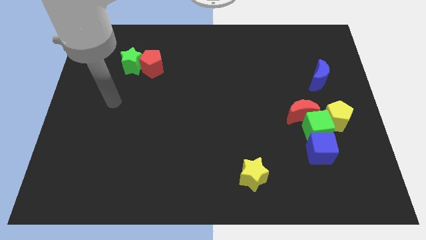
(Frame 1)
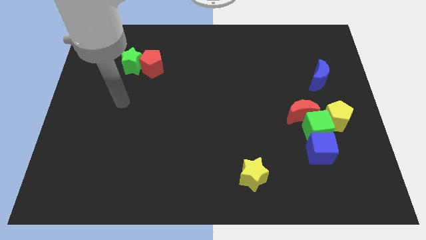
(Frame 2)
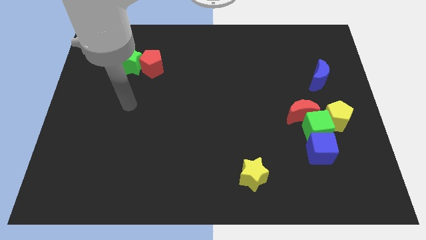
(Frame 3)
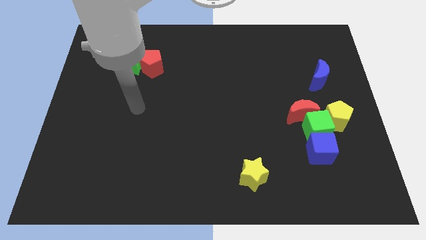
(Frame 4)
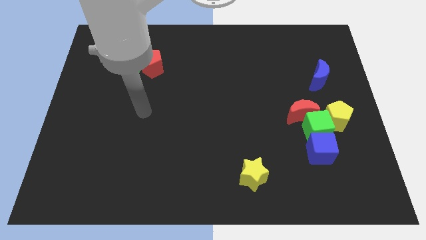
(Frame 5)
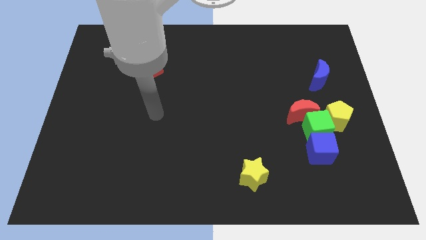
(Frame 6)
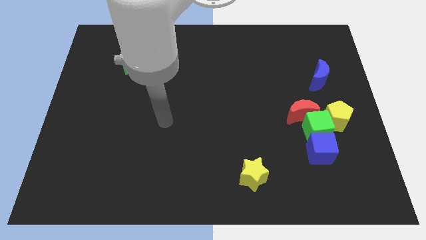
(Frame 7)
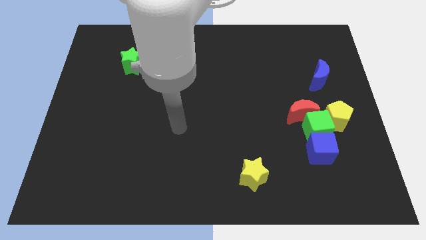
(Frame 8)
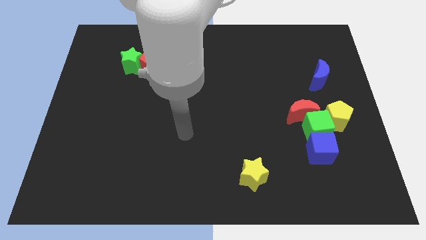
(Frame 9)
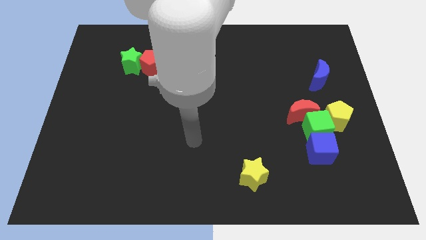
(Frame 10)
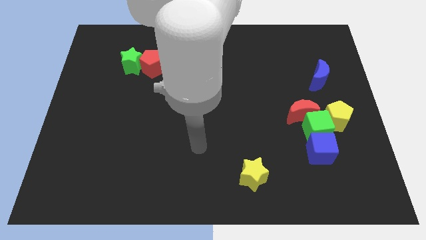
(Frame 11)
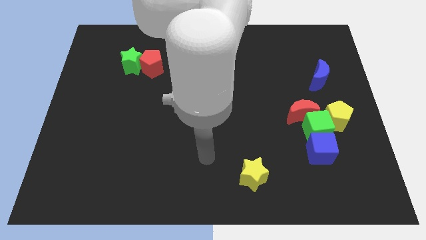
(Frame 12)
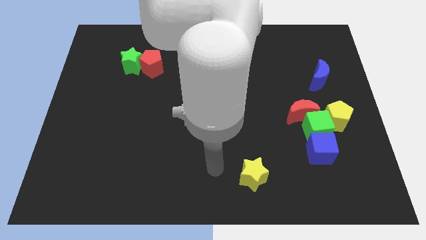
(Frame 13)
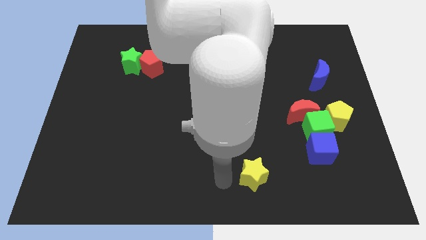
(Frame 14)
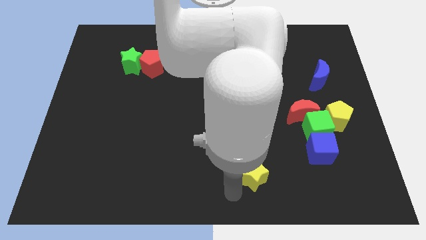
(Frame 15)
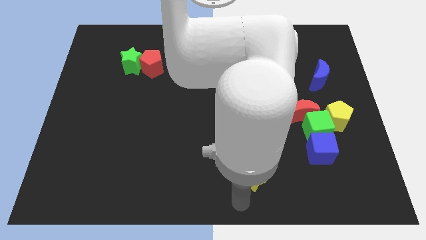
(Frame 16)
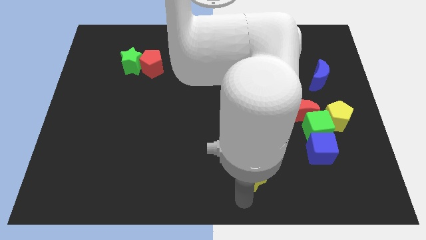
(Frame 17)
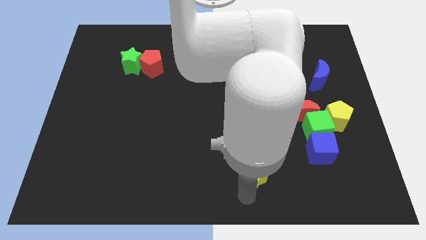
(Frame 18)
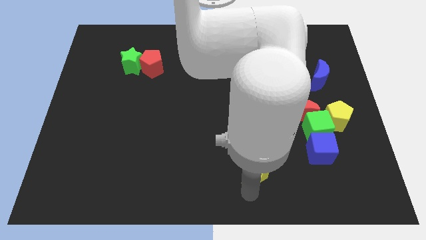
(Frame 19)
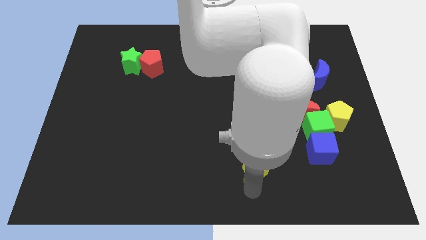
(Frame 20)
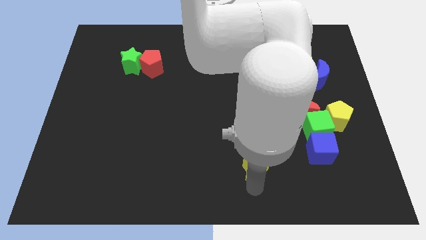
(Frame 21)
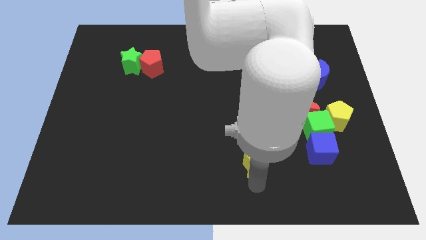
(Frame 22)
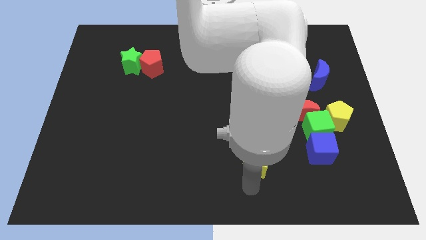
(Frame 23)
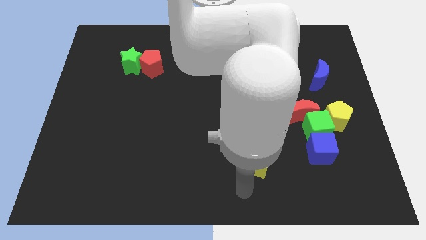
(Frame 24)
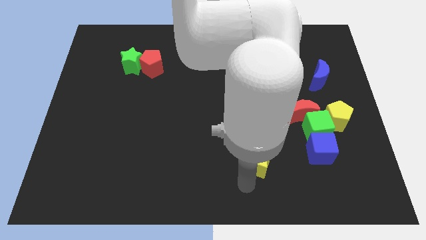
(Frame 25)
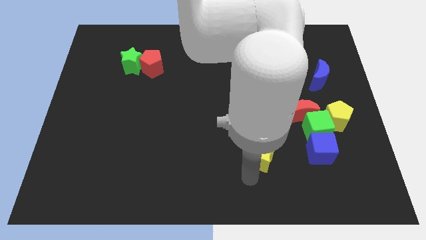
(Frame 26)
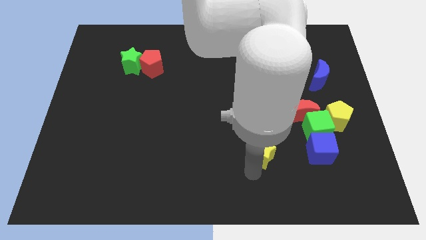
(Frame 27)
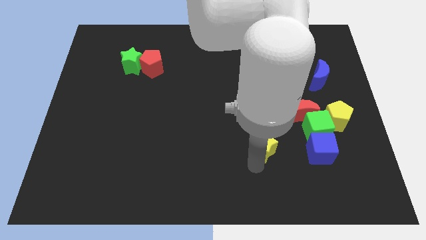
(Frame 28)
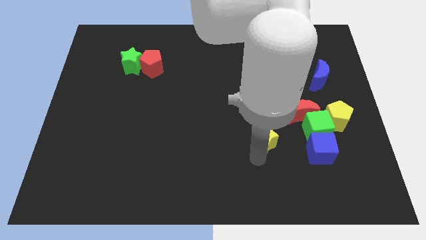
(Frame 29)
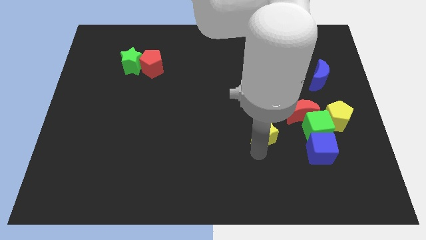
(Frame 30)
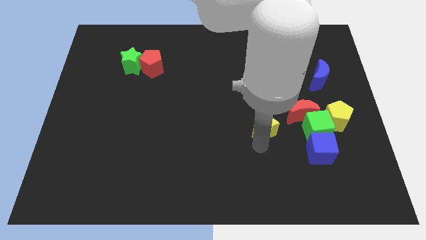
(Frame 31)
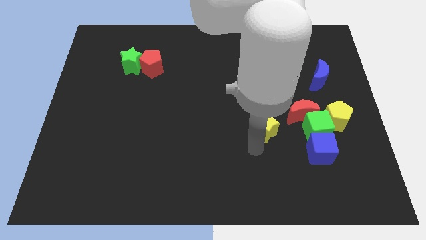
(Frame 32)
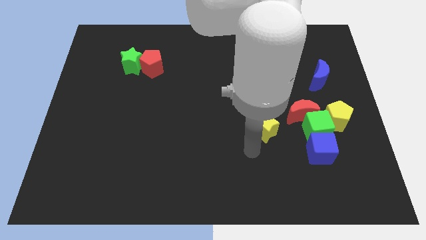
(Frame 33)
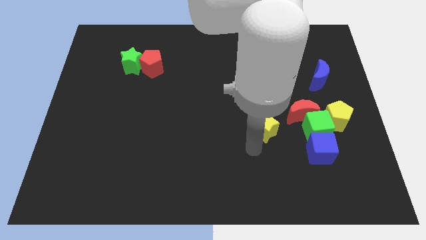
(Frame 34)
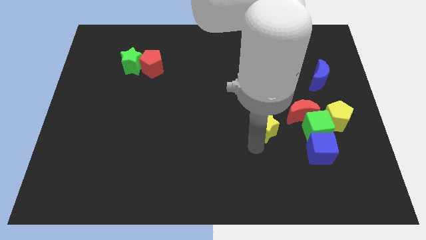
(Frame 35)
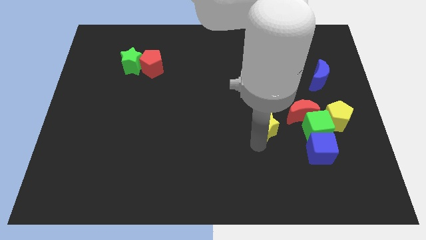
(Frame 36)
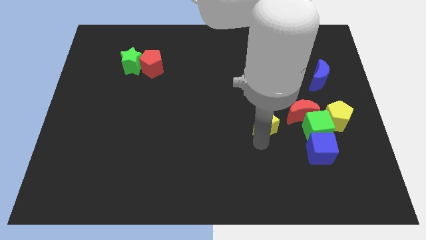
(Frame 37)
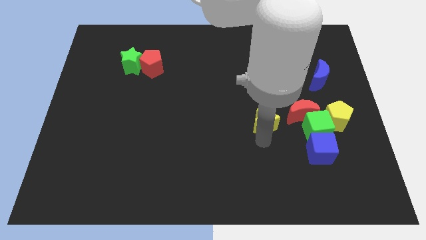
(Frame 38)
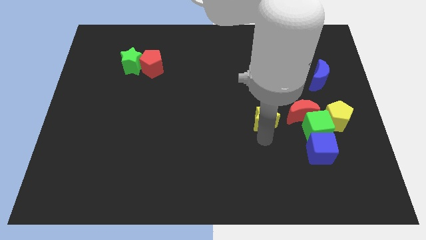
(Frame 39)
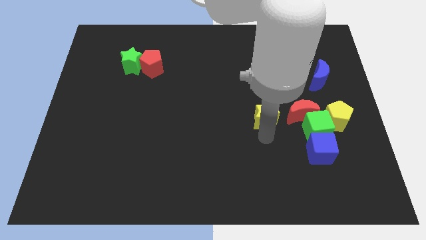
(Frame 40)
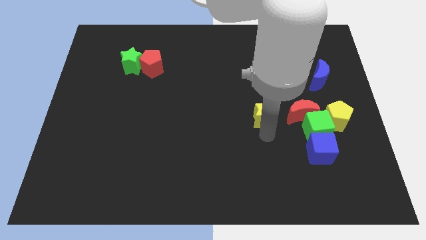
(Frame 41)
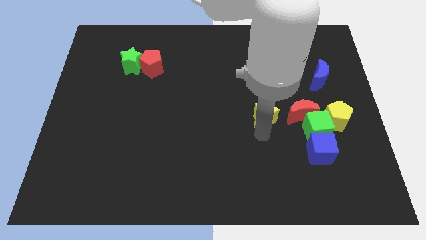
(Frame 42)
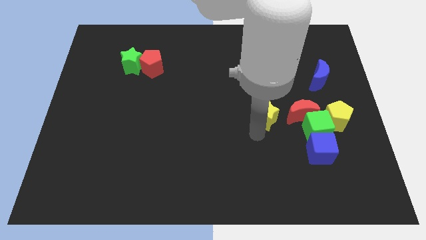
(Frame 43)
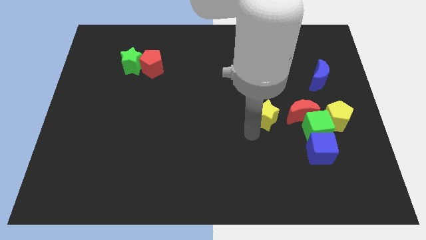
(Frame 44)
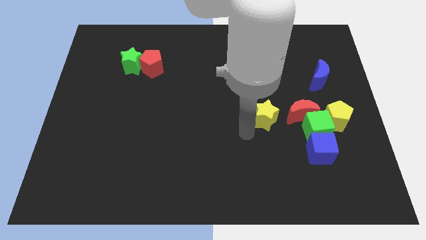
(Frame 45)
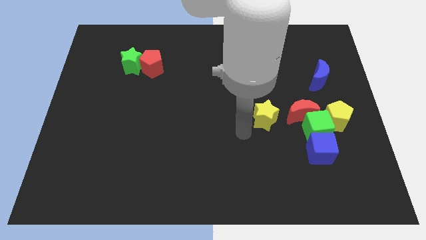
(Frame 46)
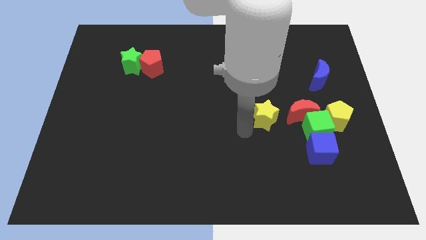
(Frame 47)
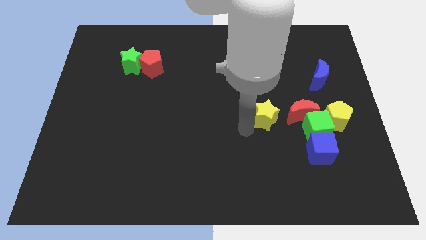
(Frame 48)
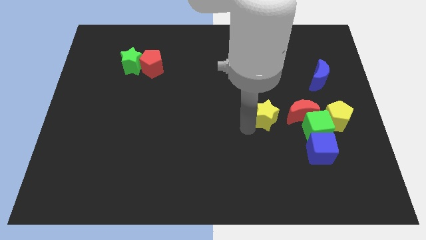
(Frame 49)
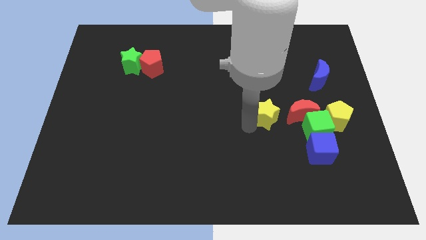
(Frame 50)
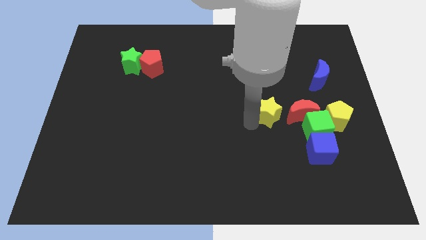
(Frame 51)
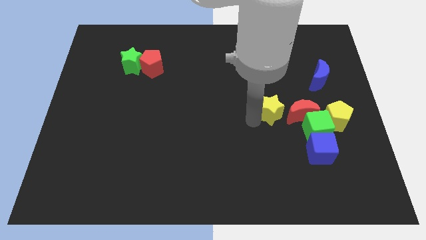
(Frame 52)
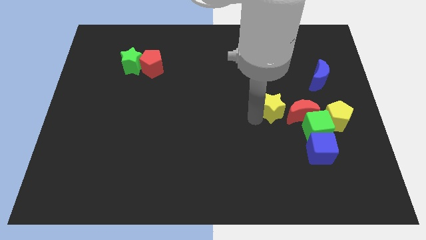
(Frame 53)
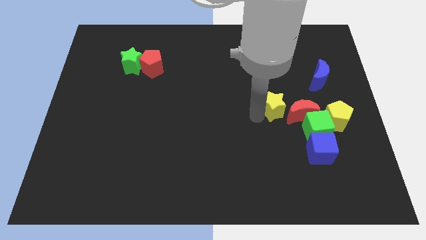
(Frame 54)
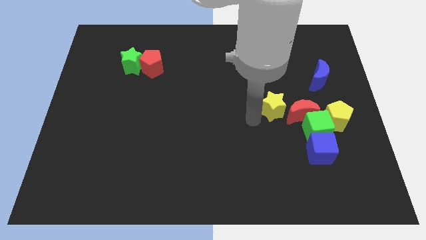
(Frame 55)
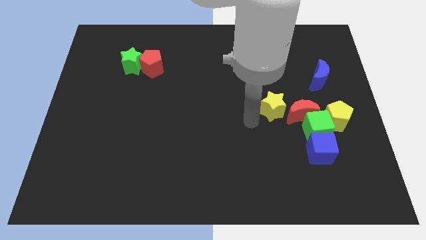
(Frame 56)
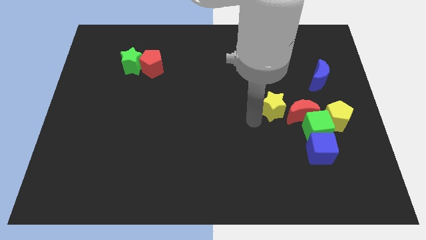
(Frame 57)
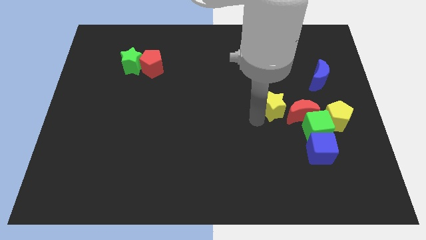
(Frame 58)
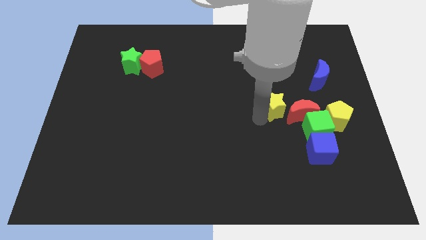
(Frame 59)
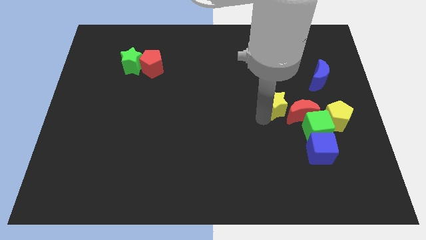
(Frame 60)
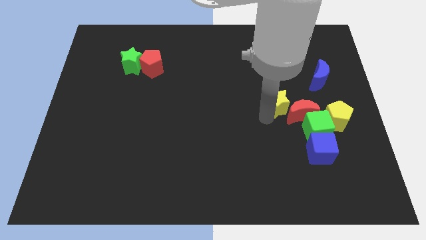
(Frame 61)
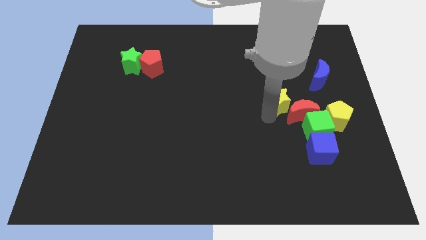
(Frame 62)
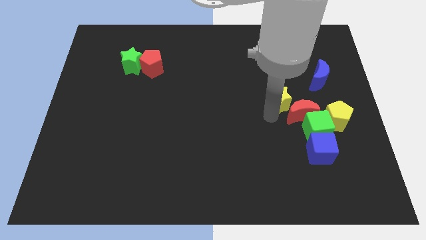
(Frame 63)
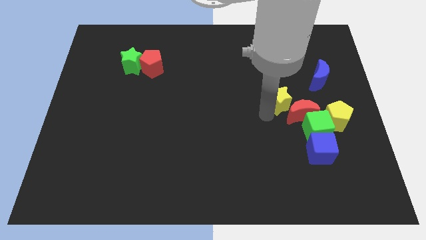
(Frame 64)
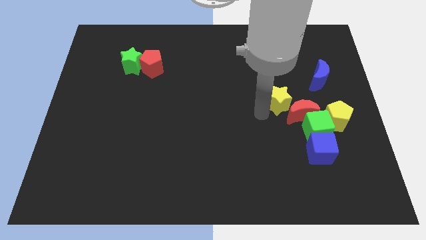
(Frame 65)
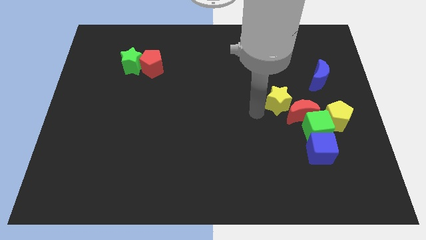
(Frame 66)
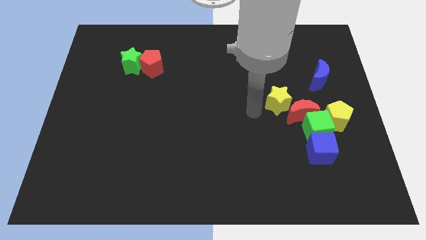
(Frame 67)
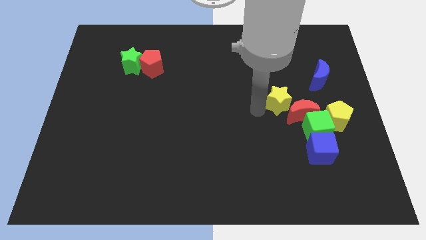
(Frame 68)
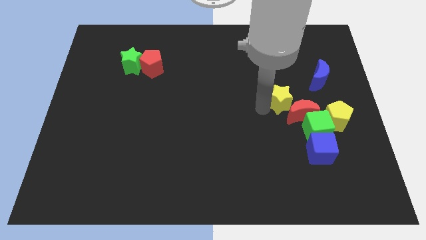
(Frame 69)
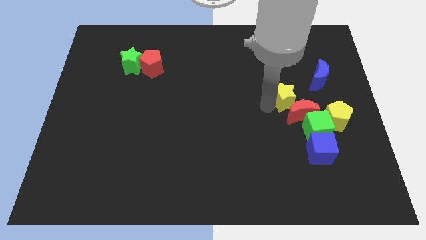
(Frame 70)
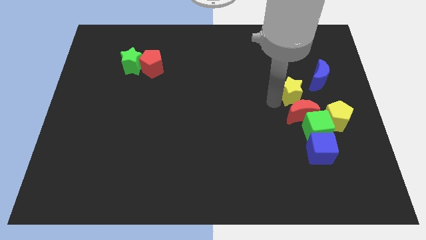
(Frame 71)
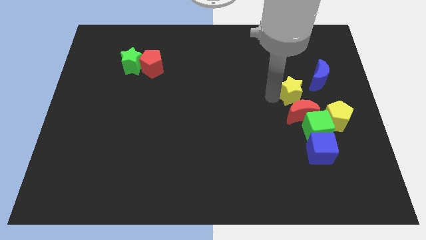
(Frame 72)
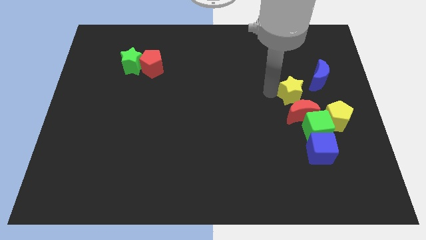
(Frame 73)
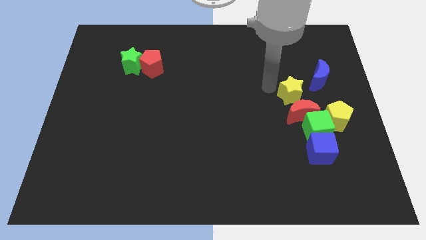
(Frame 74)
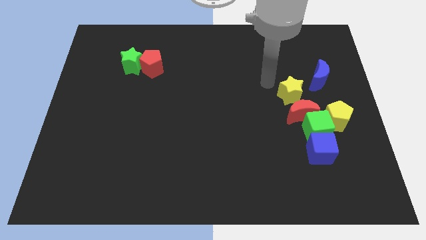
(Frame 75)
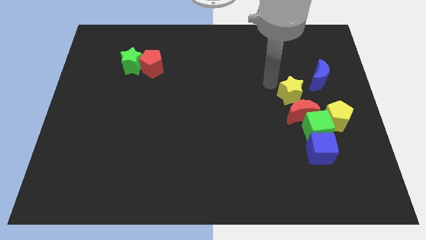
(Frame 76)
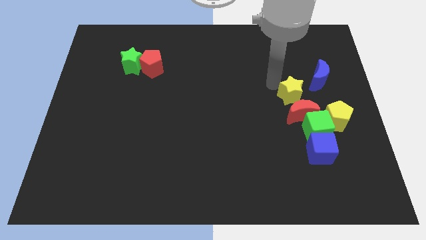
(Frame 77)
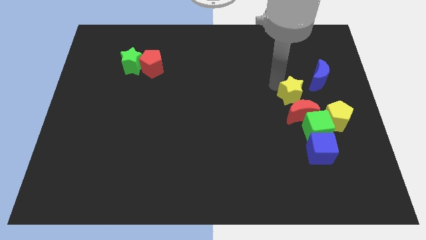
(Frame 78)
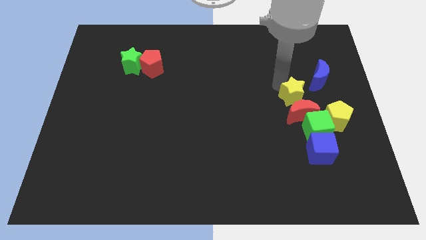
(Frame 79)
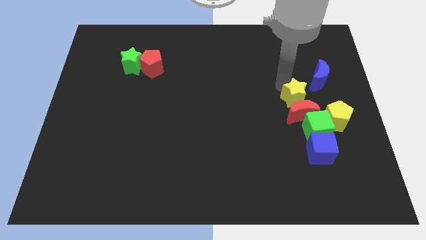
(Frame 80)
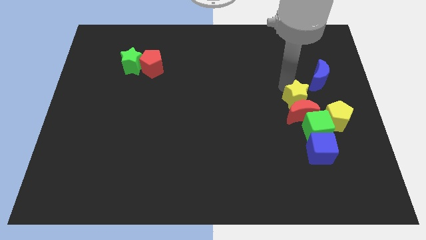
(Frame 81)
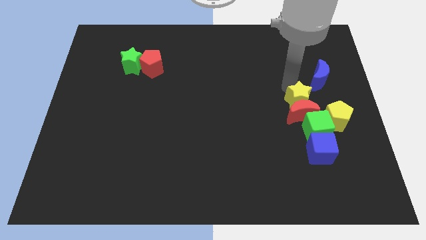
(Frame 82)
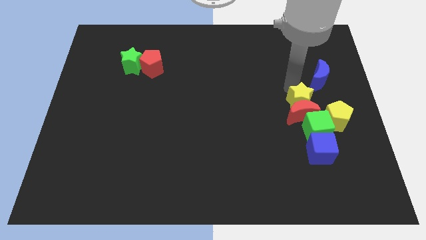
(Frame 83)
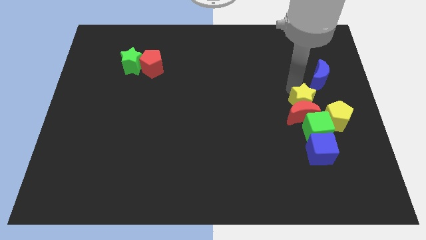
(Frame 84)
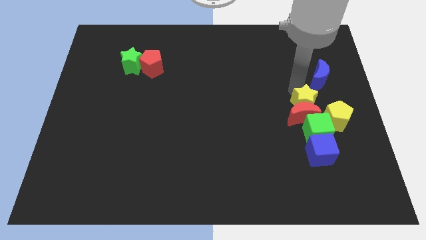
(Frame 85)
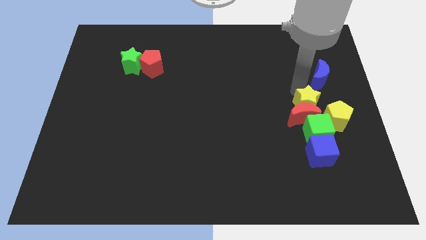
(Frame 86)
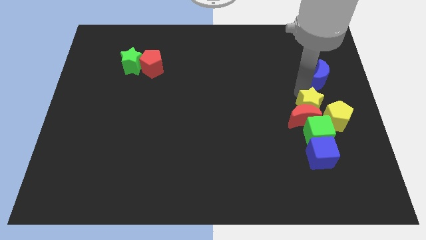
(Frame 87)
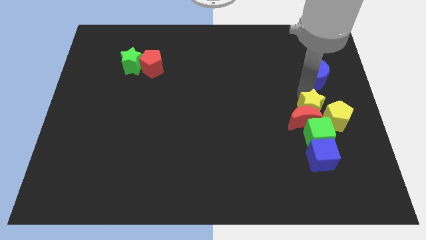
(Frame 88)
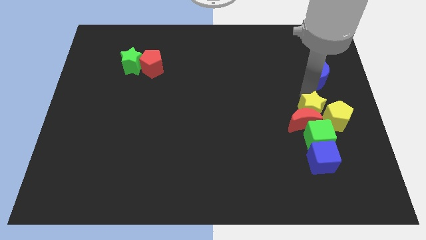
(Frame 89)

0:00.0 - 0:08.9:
push the yellow star next to the yellow pentagon
